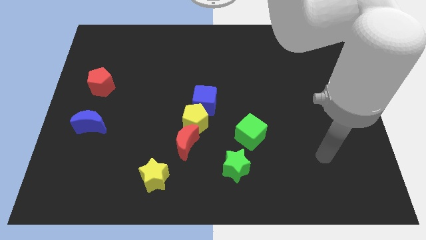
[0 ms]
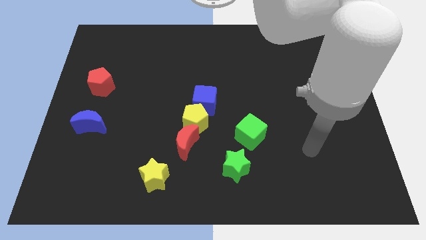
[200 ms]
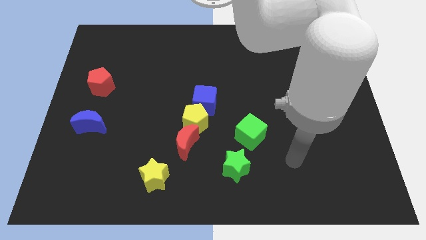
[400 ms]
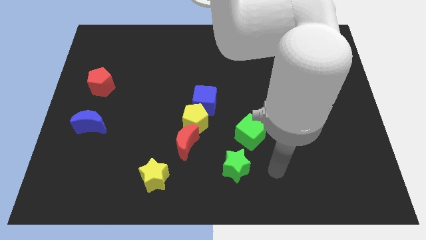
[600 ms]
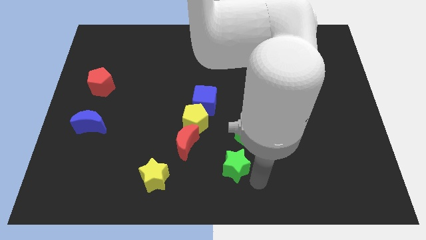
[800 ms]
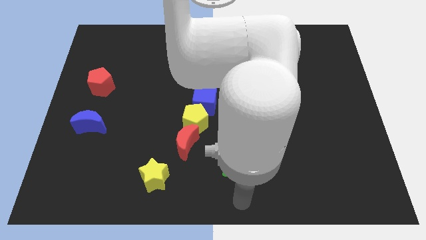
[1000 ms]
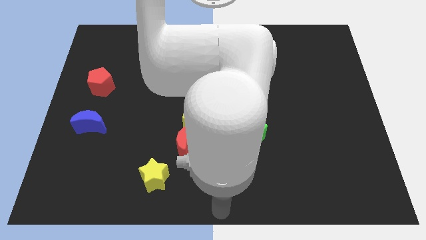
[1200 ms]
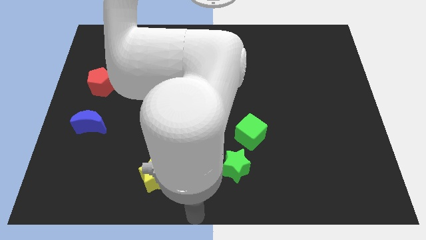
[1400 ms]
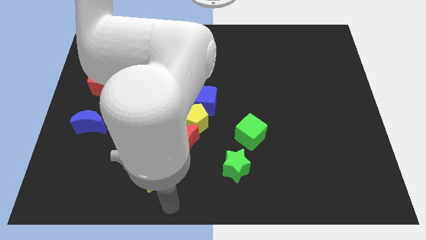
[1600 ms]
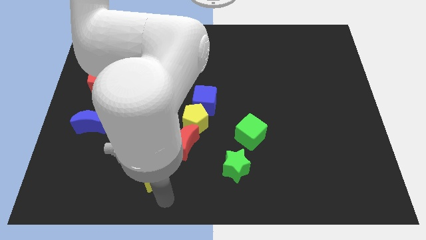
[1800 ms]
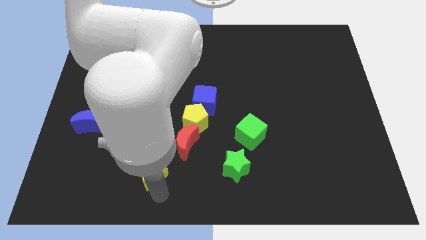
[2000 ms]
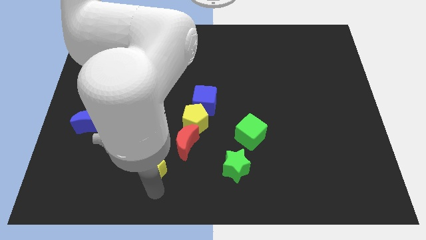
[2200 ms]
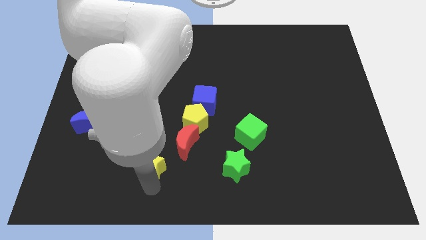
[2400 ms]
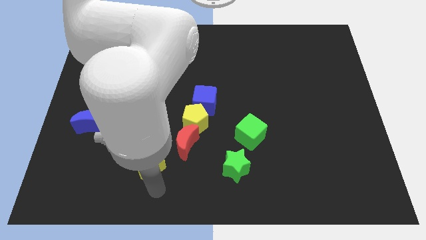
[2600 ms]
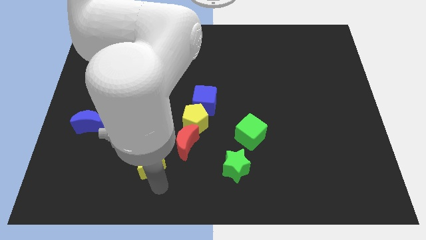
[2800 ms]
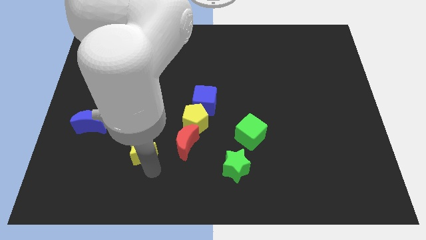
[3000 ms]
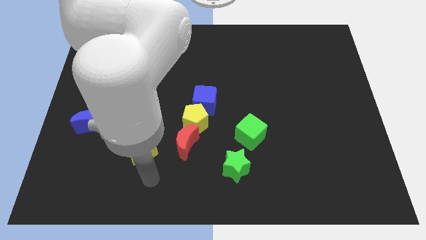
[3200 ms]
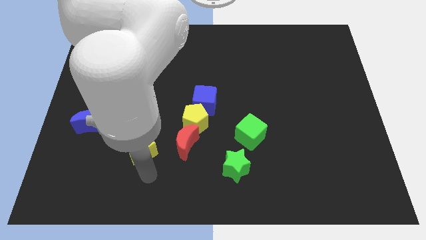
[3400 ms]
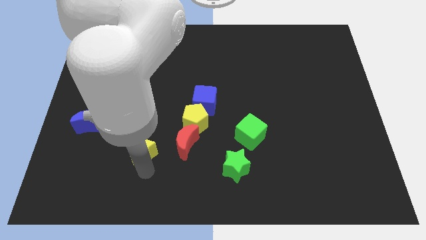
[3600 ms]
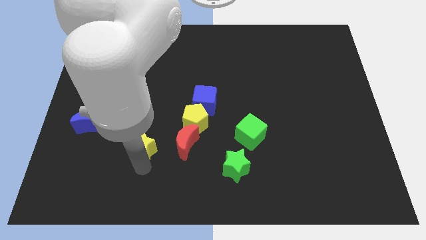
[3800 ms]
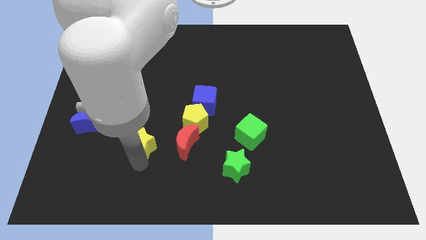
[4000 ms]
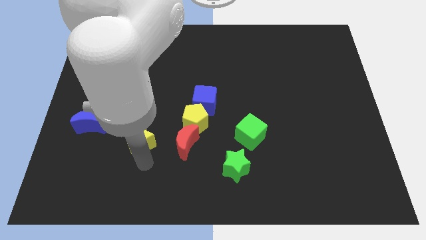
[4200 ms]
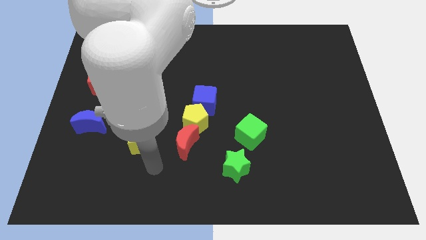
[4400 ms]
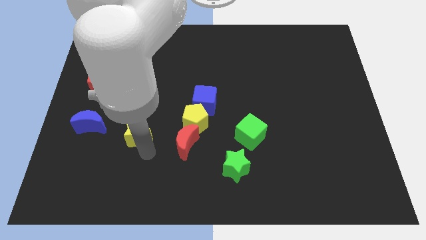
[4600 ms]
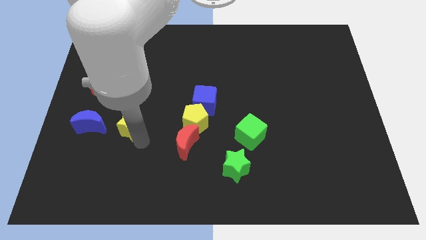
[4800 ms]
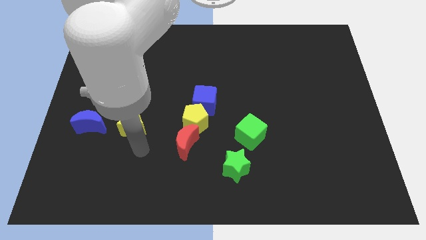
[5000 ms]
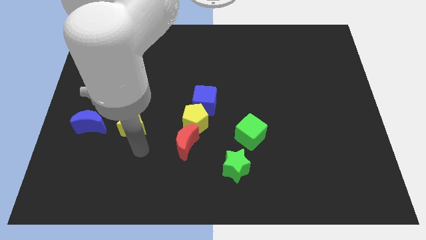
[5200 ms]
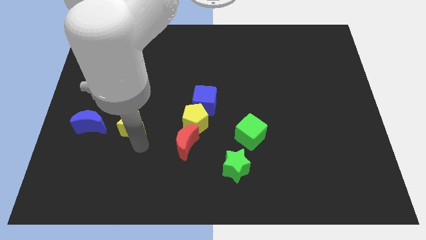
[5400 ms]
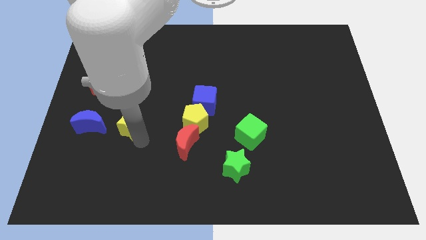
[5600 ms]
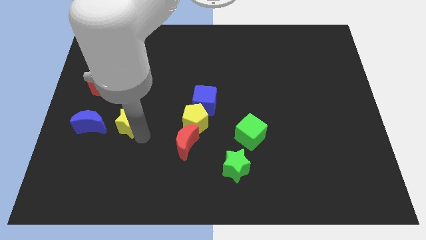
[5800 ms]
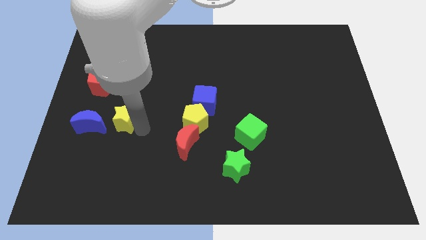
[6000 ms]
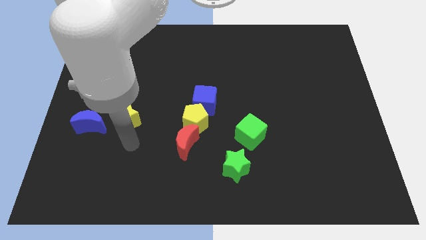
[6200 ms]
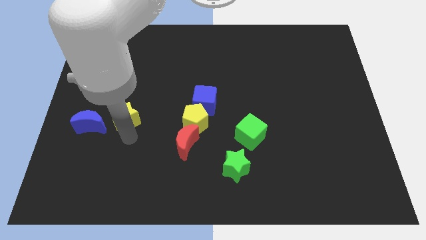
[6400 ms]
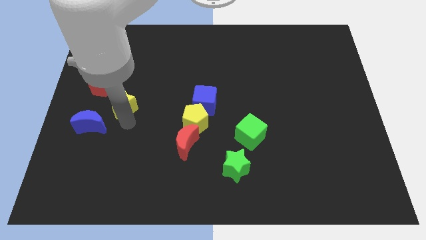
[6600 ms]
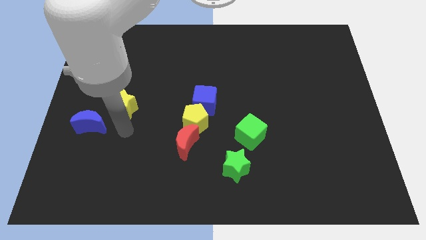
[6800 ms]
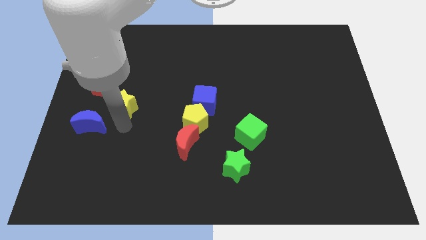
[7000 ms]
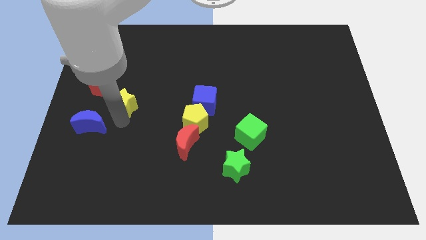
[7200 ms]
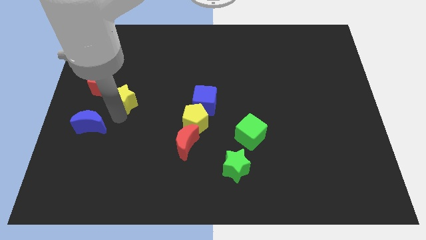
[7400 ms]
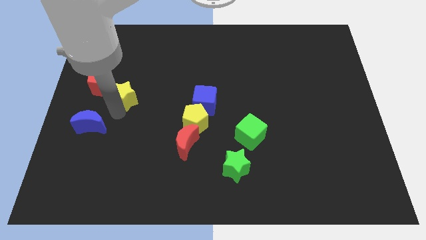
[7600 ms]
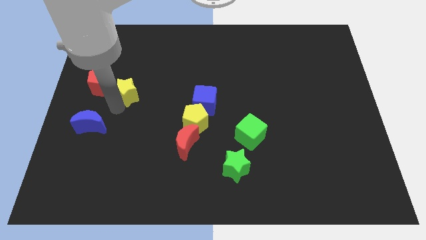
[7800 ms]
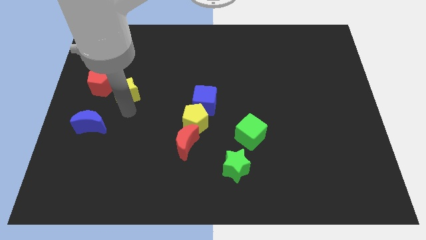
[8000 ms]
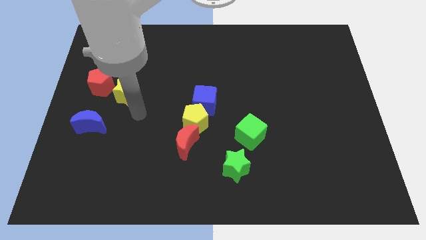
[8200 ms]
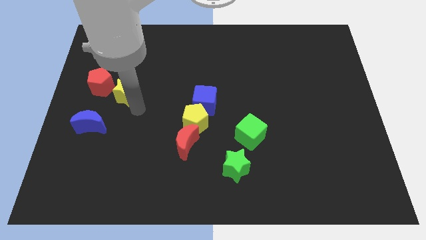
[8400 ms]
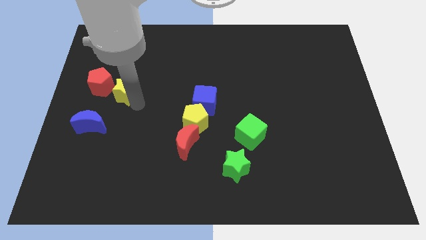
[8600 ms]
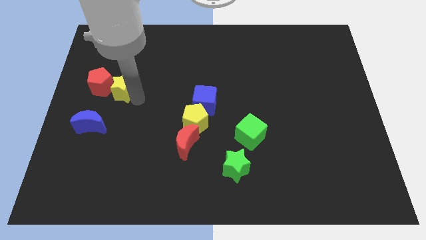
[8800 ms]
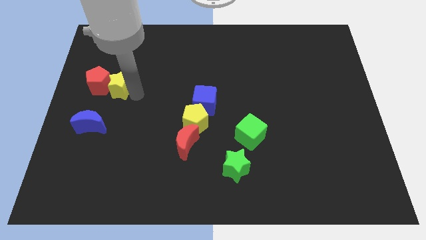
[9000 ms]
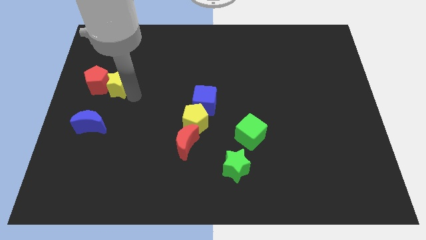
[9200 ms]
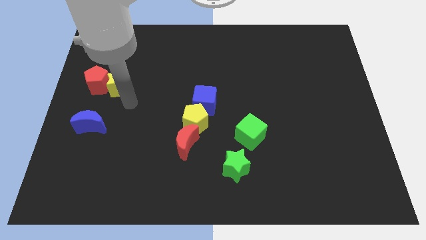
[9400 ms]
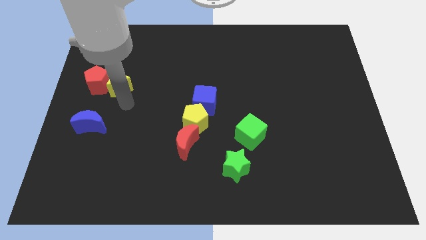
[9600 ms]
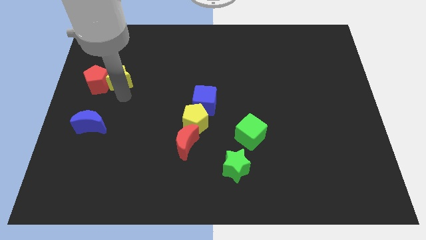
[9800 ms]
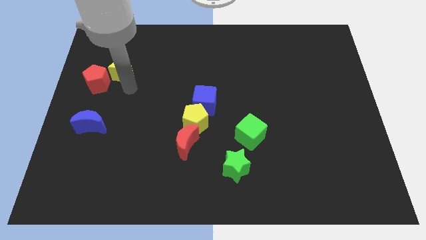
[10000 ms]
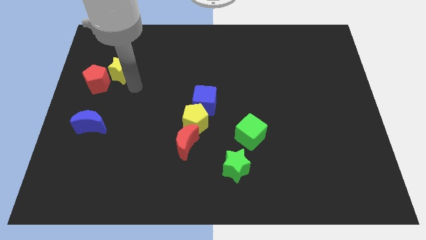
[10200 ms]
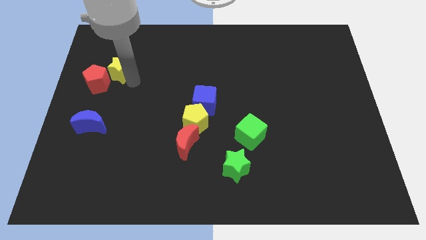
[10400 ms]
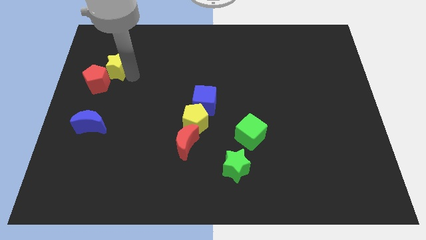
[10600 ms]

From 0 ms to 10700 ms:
push the yellow star to the top side of the red pentagon

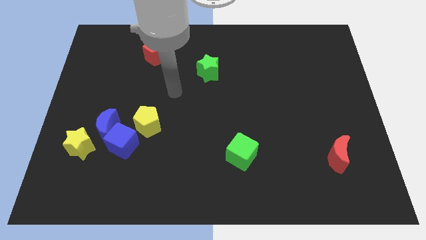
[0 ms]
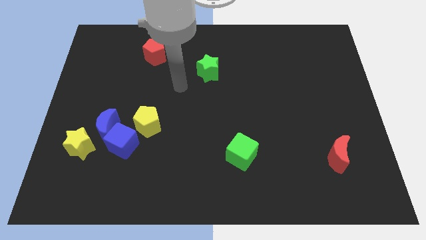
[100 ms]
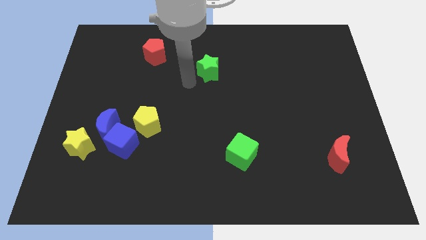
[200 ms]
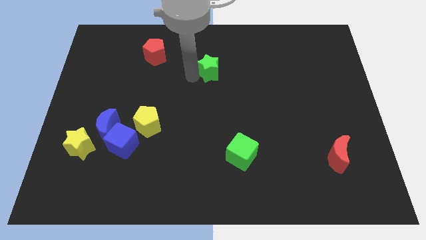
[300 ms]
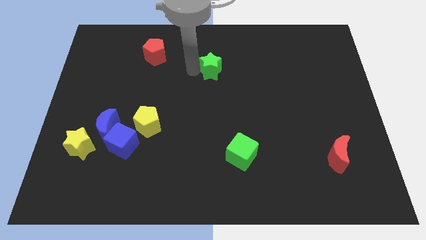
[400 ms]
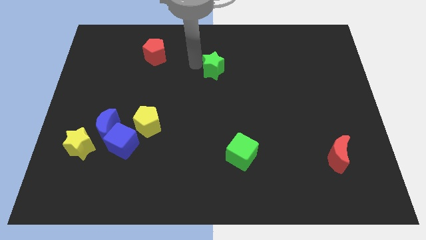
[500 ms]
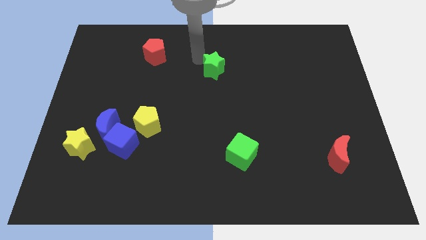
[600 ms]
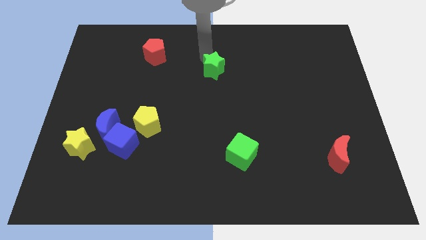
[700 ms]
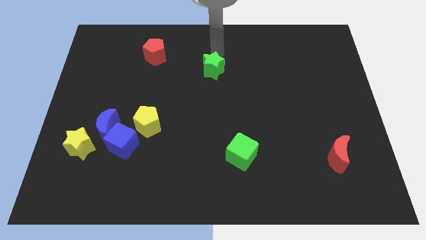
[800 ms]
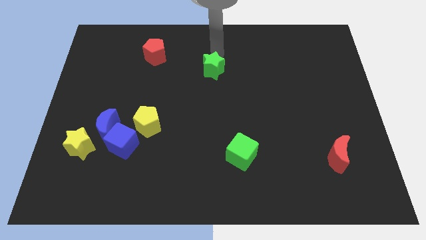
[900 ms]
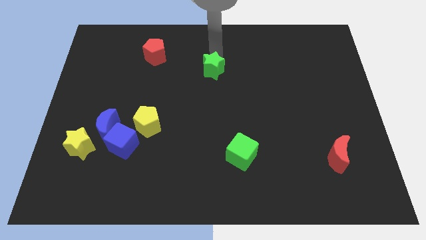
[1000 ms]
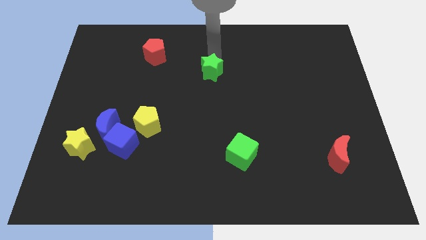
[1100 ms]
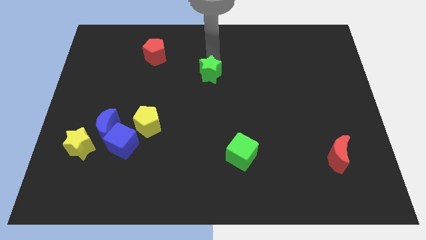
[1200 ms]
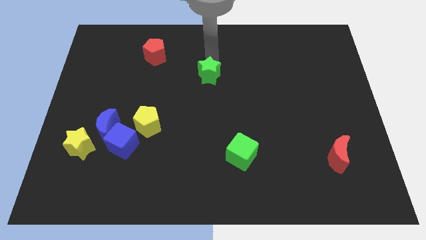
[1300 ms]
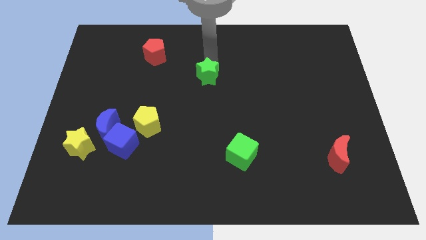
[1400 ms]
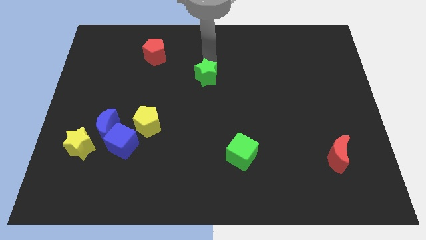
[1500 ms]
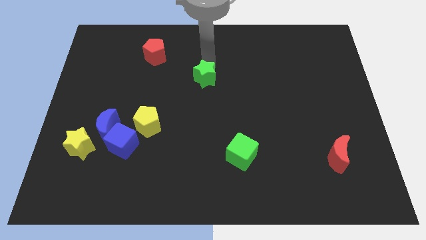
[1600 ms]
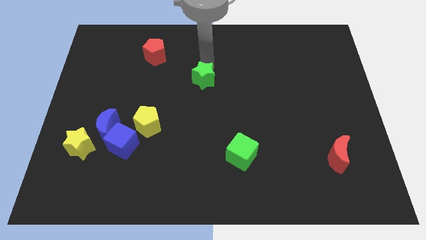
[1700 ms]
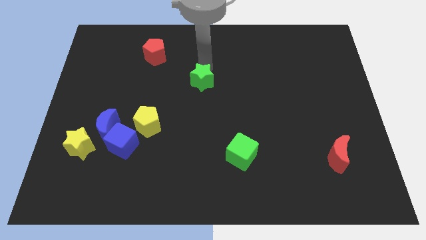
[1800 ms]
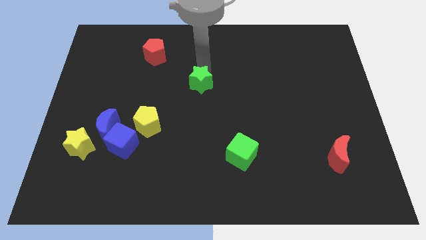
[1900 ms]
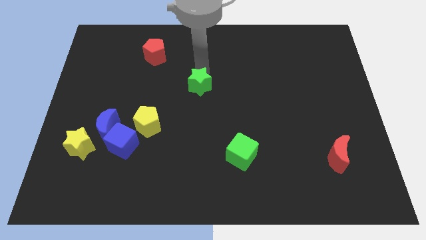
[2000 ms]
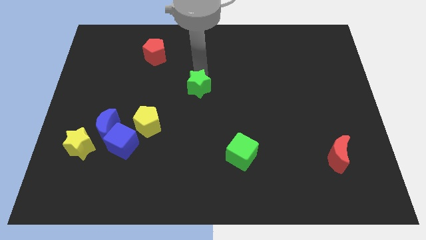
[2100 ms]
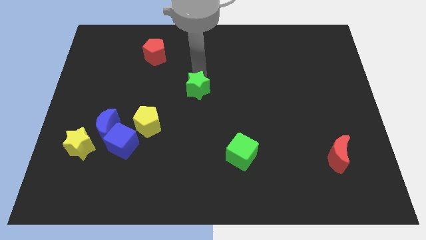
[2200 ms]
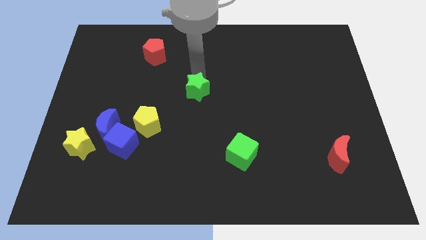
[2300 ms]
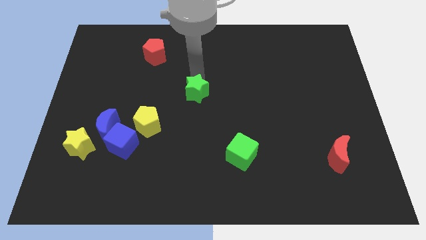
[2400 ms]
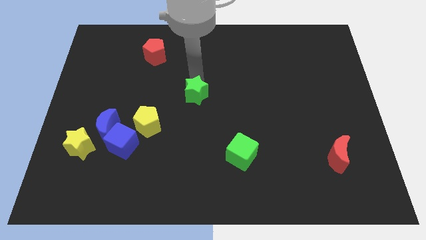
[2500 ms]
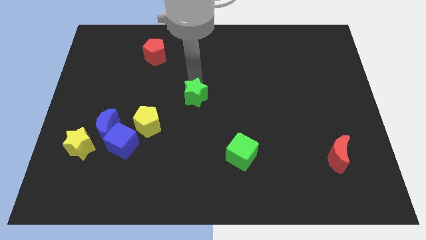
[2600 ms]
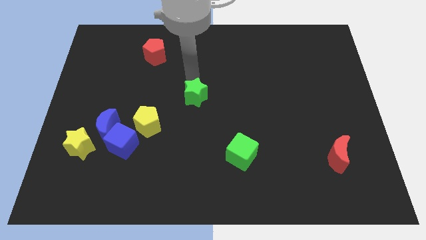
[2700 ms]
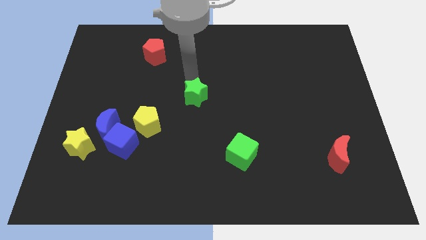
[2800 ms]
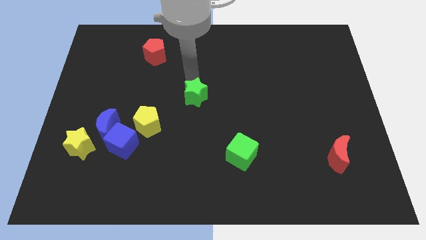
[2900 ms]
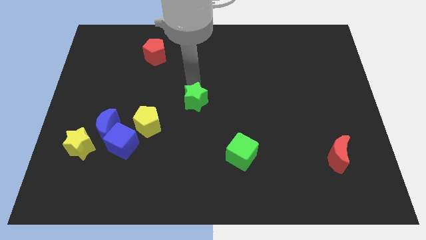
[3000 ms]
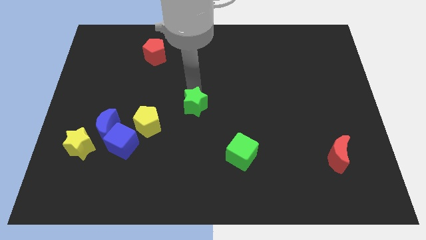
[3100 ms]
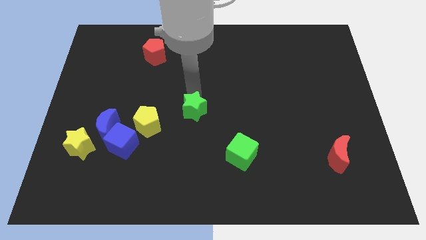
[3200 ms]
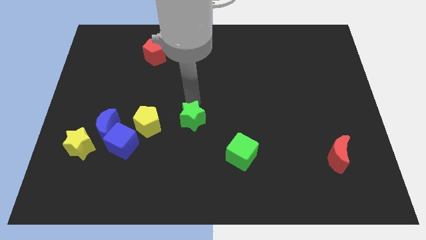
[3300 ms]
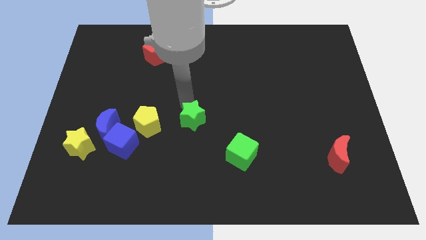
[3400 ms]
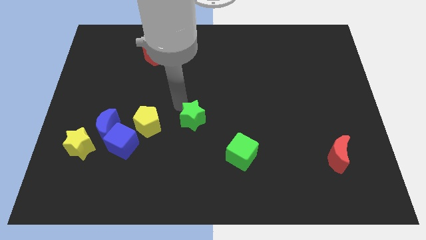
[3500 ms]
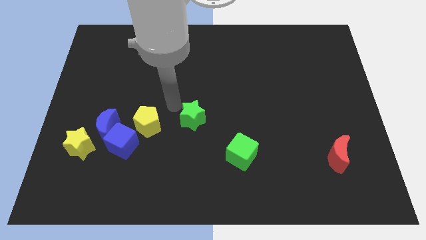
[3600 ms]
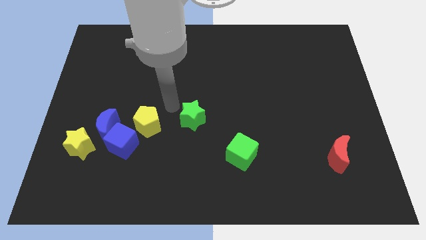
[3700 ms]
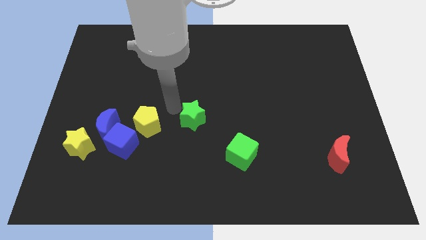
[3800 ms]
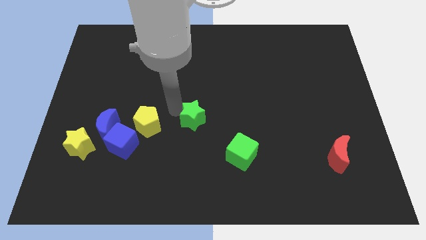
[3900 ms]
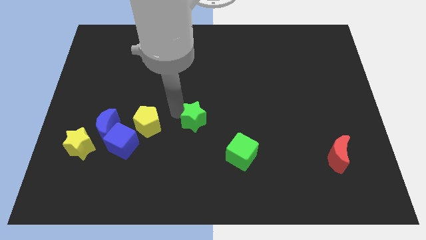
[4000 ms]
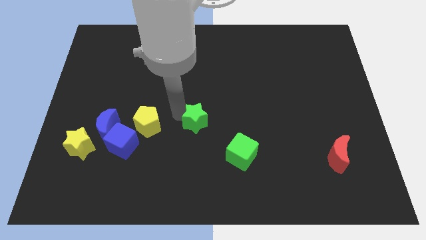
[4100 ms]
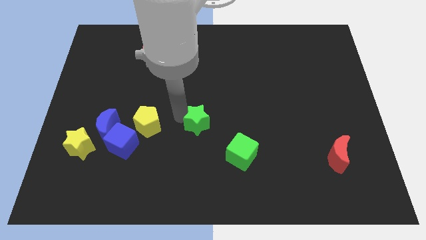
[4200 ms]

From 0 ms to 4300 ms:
push the green star diagonally up and to the left of the green cube
